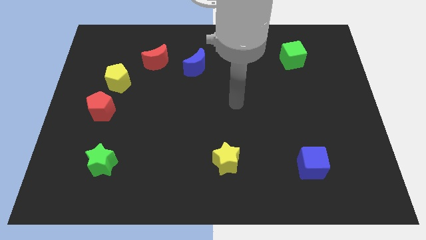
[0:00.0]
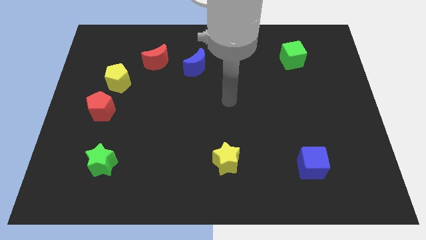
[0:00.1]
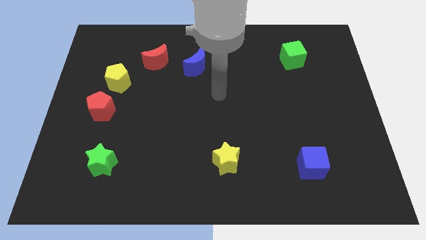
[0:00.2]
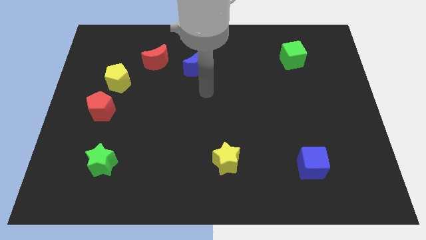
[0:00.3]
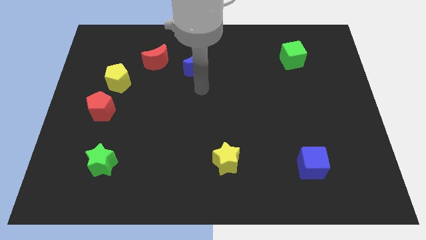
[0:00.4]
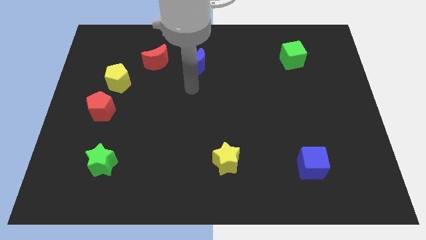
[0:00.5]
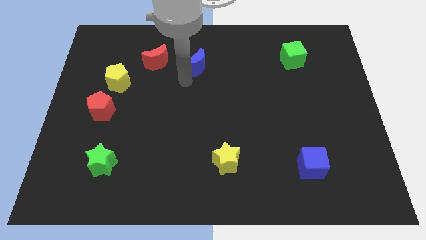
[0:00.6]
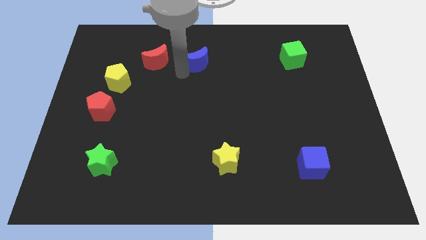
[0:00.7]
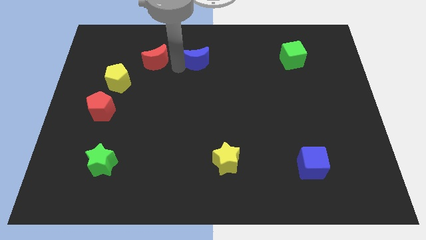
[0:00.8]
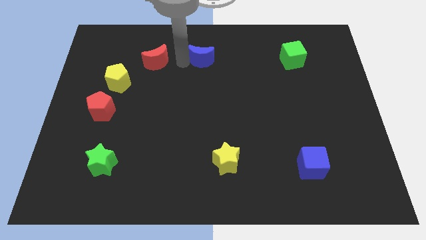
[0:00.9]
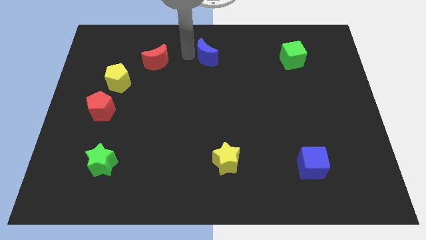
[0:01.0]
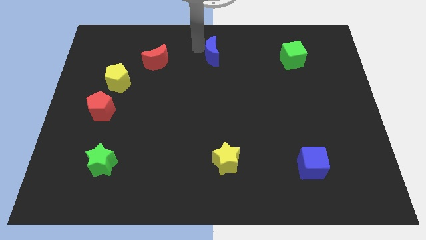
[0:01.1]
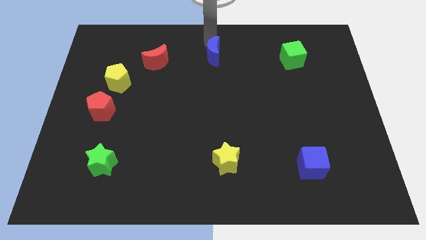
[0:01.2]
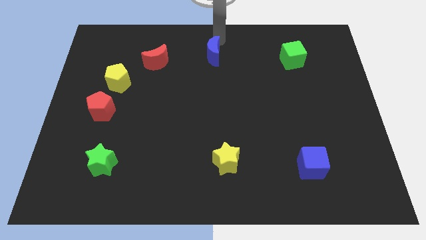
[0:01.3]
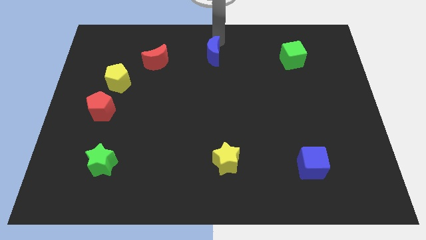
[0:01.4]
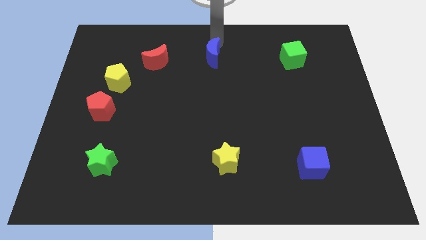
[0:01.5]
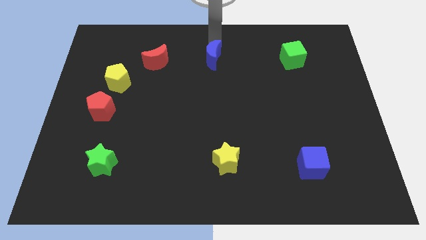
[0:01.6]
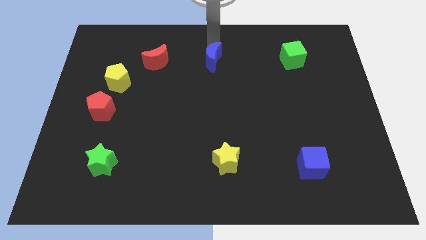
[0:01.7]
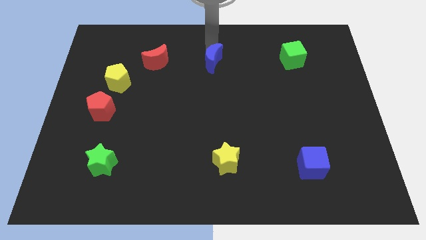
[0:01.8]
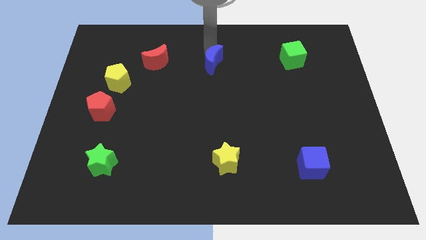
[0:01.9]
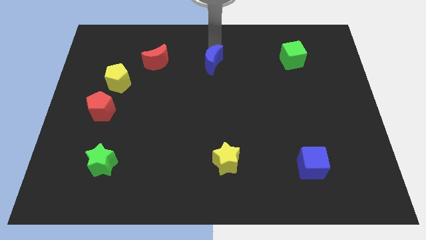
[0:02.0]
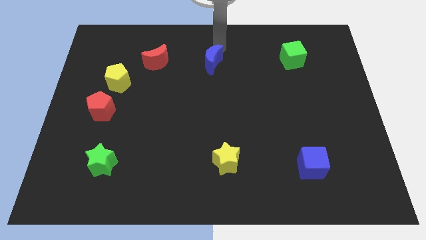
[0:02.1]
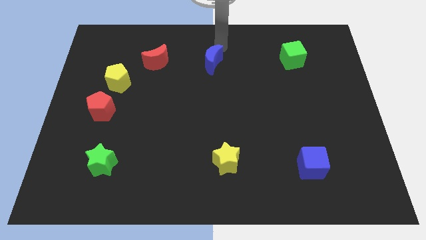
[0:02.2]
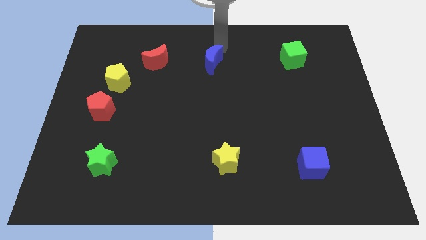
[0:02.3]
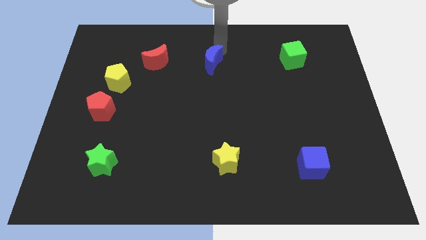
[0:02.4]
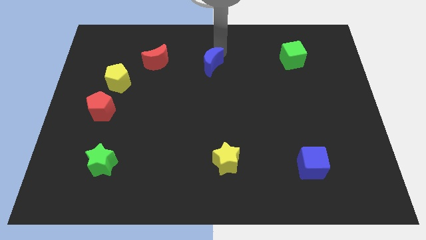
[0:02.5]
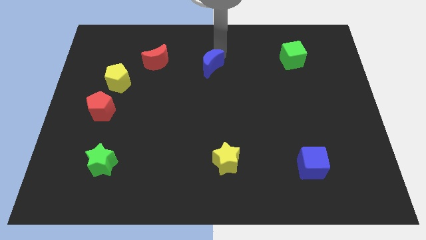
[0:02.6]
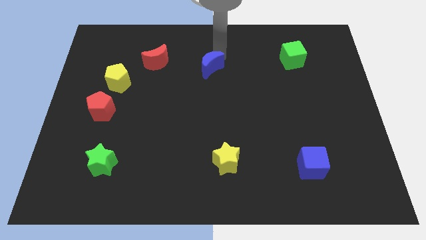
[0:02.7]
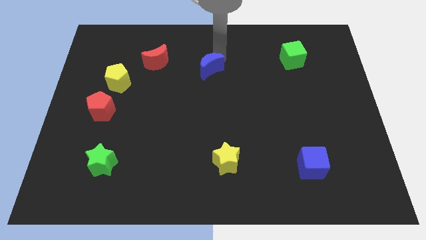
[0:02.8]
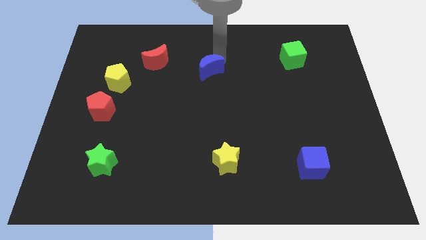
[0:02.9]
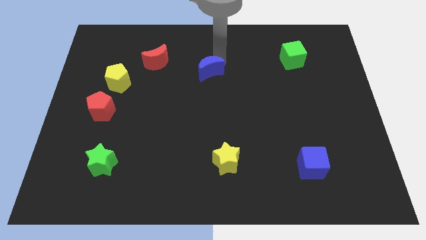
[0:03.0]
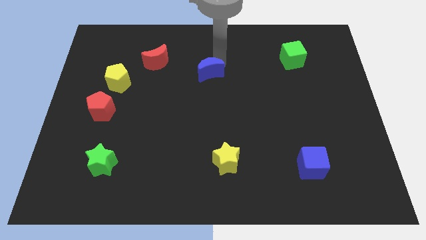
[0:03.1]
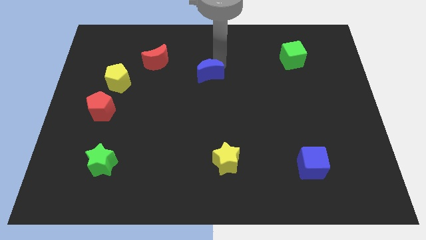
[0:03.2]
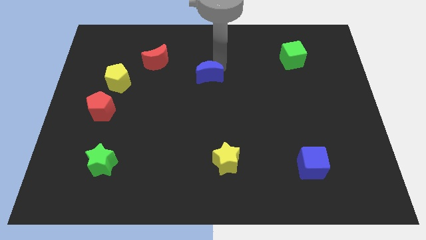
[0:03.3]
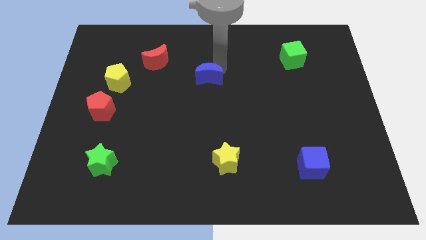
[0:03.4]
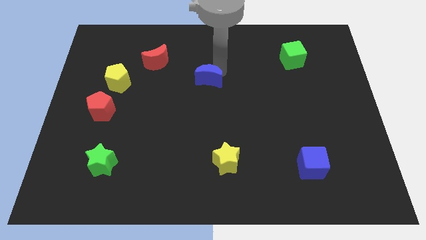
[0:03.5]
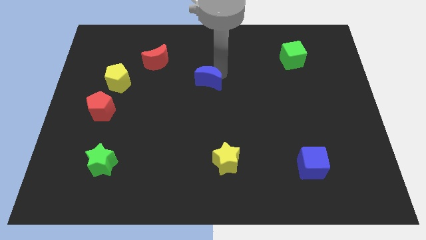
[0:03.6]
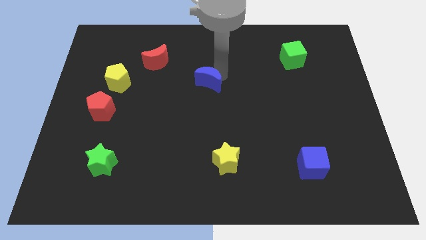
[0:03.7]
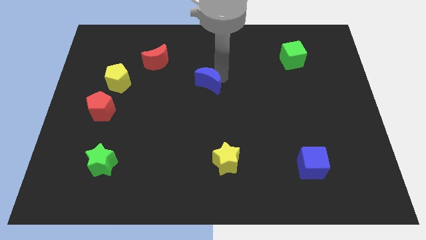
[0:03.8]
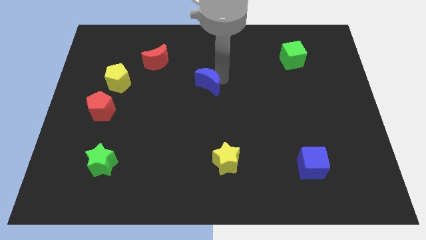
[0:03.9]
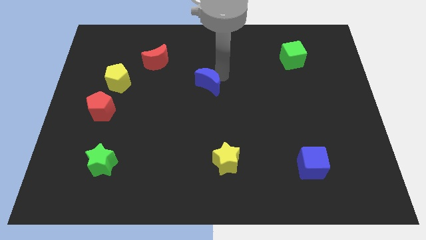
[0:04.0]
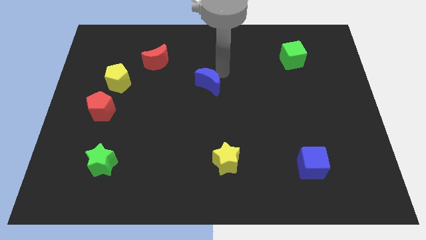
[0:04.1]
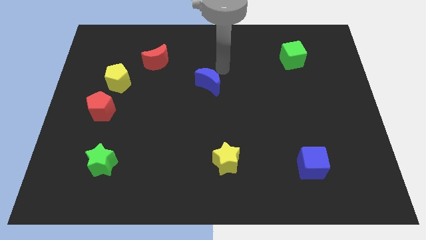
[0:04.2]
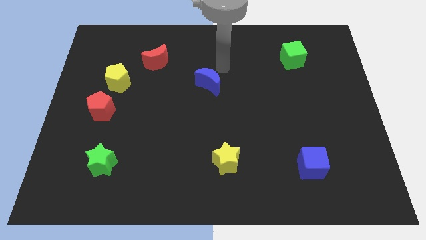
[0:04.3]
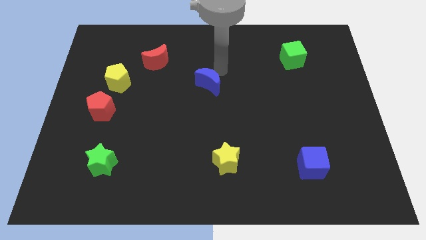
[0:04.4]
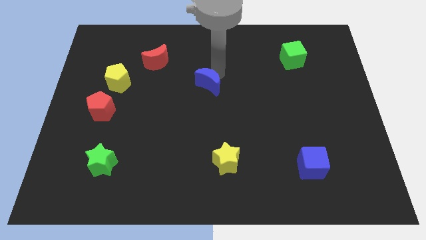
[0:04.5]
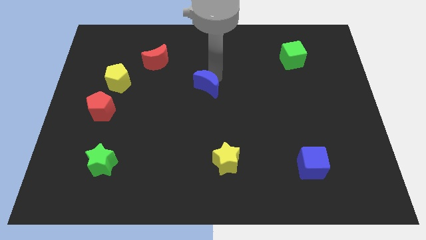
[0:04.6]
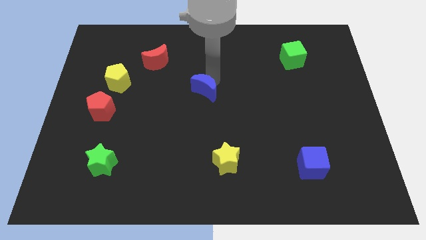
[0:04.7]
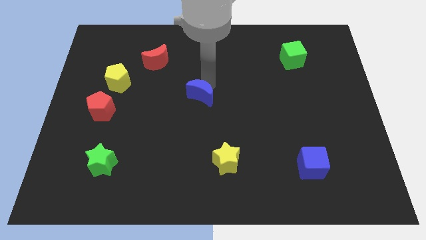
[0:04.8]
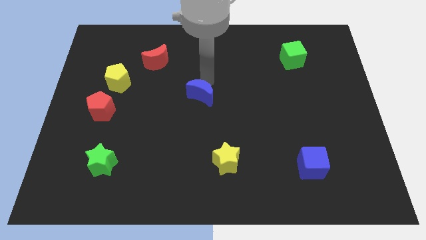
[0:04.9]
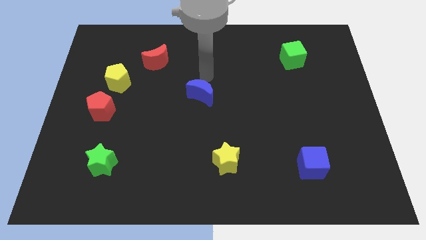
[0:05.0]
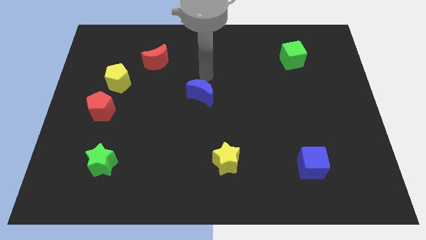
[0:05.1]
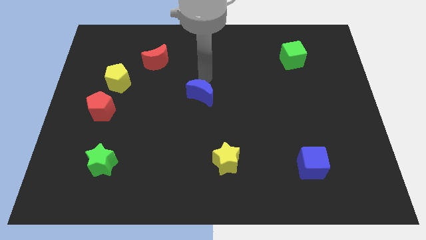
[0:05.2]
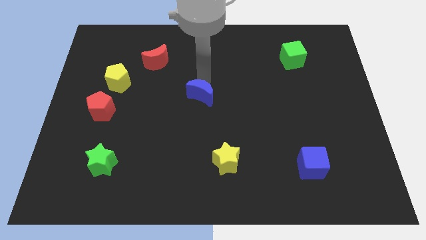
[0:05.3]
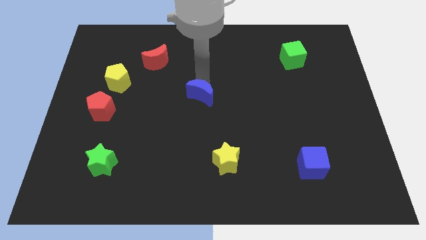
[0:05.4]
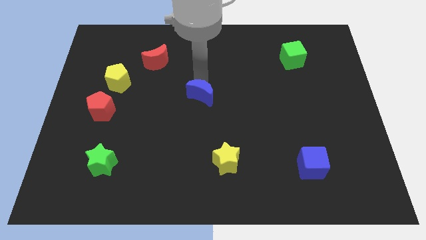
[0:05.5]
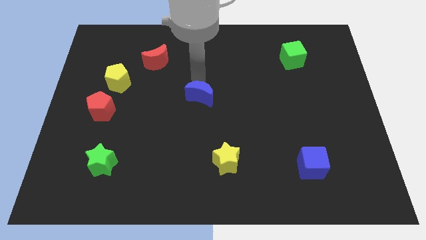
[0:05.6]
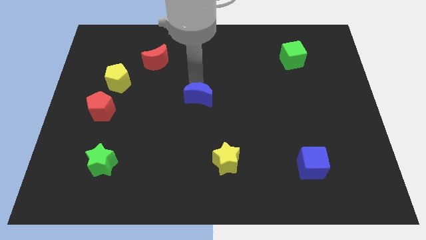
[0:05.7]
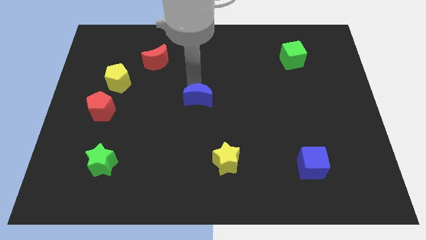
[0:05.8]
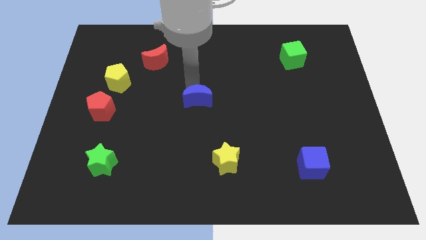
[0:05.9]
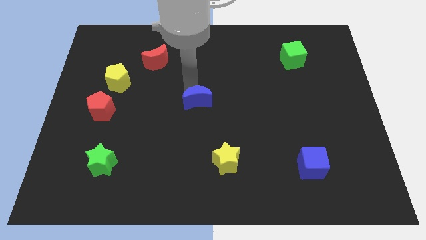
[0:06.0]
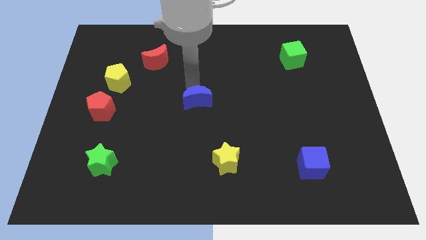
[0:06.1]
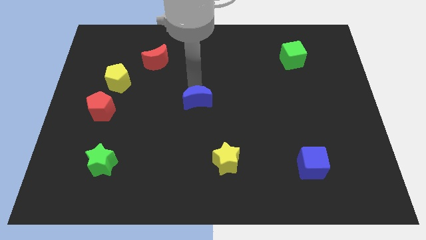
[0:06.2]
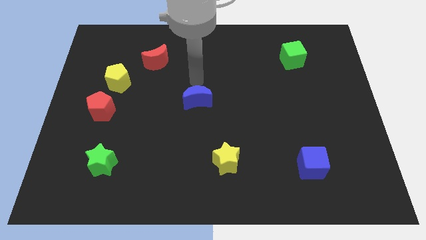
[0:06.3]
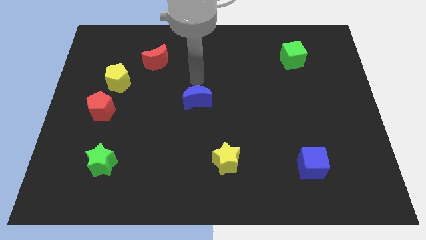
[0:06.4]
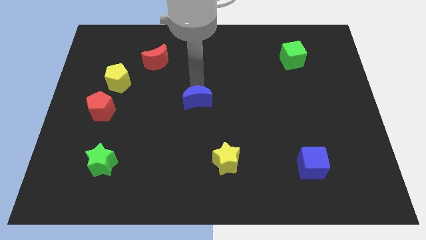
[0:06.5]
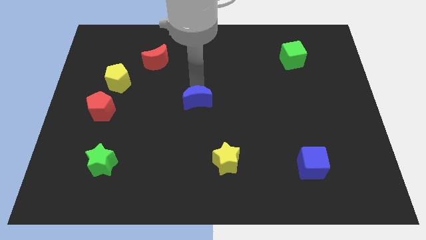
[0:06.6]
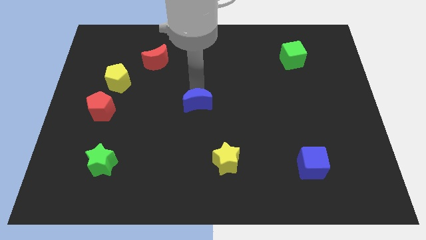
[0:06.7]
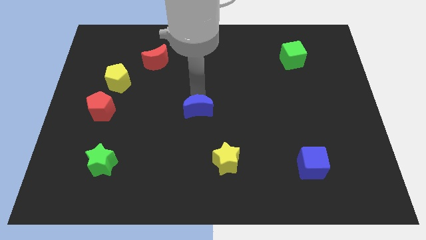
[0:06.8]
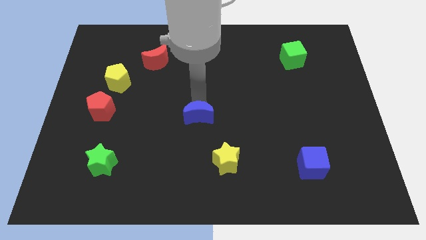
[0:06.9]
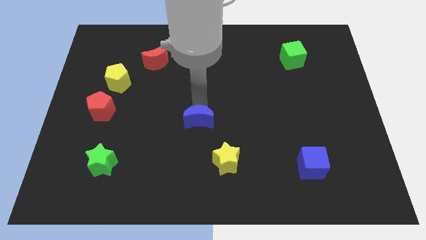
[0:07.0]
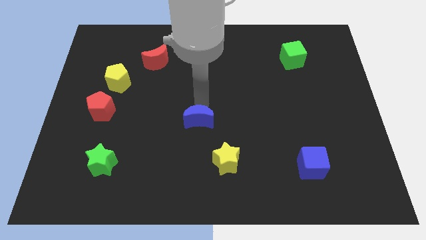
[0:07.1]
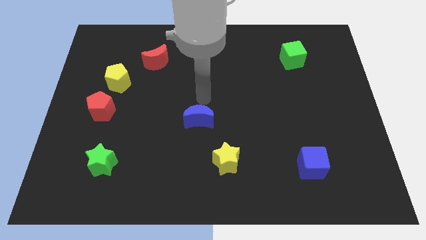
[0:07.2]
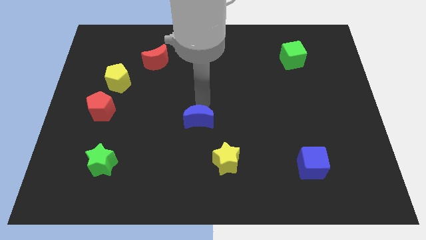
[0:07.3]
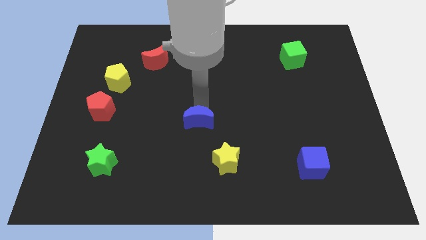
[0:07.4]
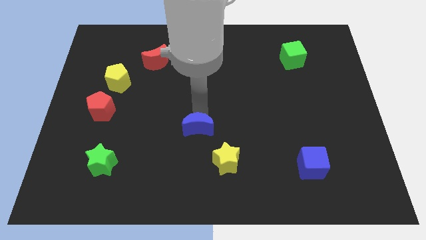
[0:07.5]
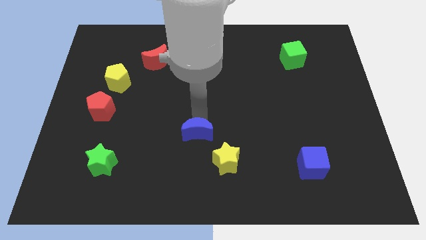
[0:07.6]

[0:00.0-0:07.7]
slide the blue moon down

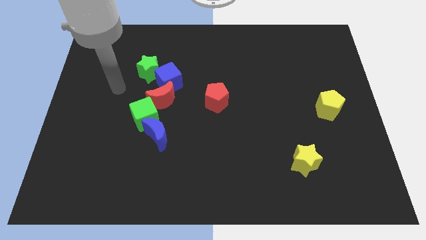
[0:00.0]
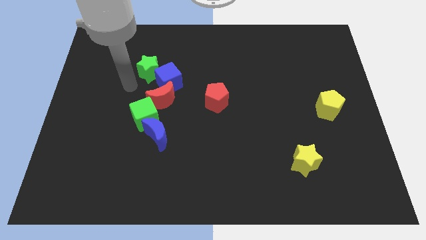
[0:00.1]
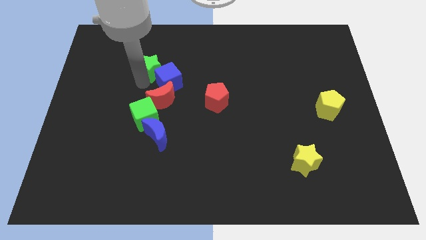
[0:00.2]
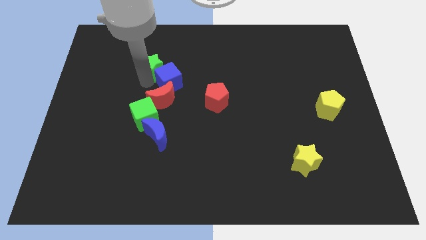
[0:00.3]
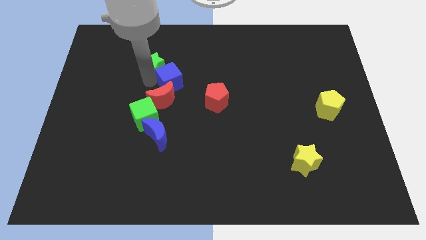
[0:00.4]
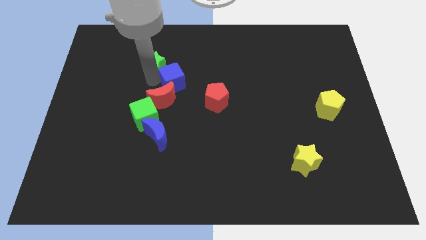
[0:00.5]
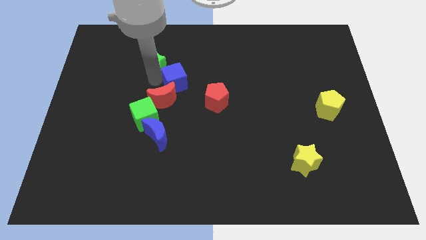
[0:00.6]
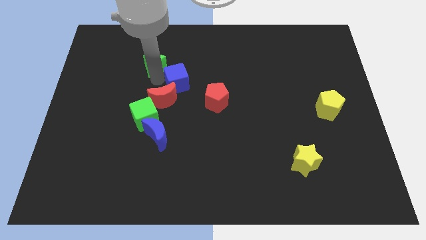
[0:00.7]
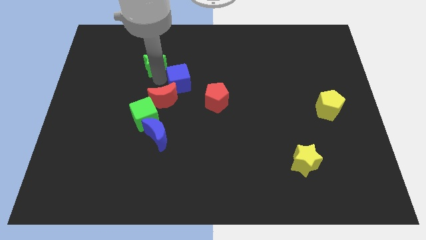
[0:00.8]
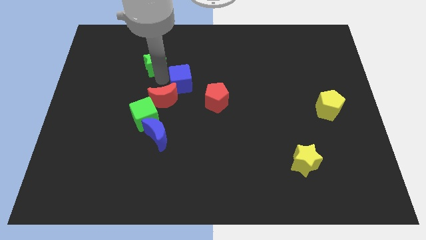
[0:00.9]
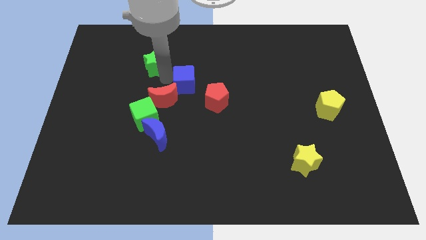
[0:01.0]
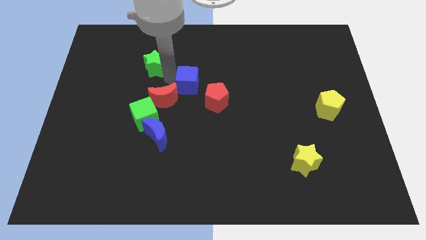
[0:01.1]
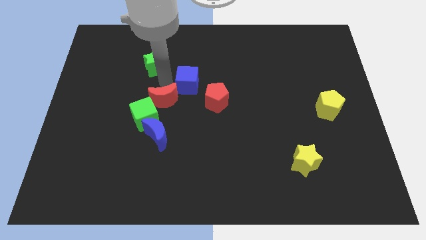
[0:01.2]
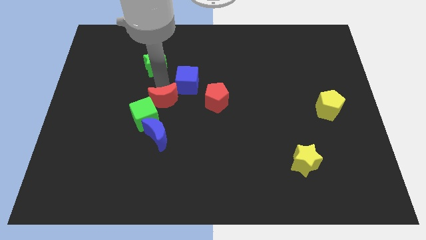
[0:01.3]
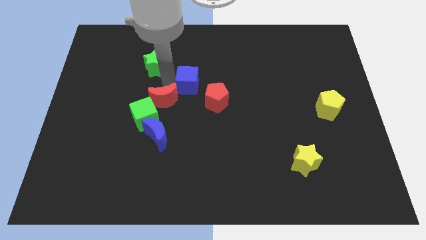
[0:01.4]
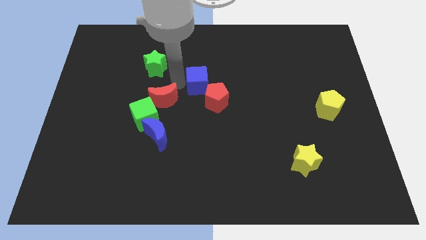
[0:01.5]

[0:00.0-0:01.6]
slide the blue cube somewhat right
